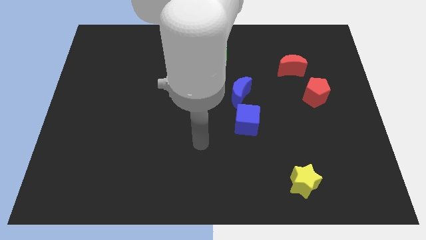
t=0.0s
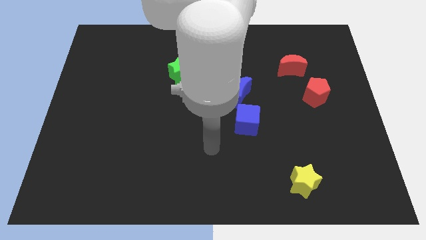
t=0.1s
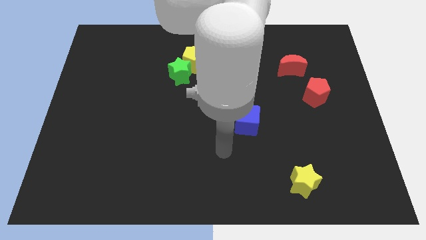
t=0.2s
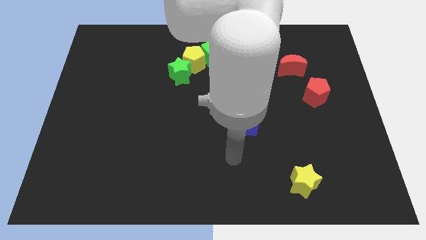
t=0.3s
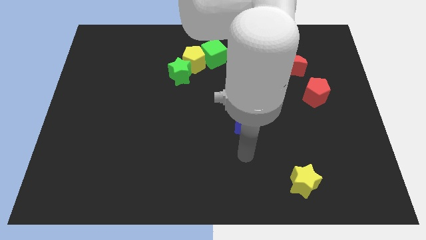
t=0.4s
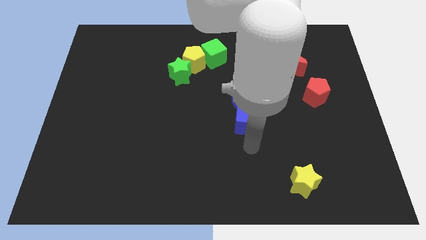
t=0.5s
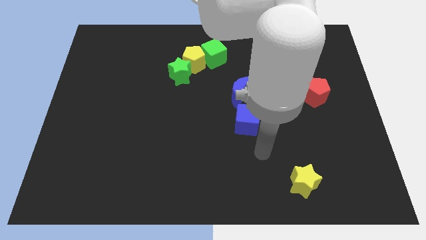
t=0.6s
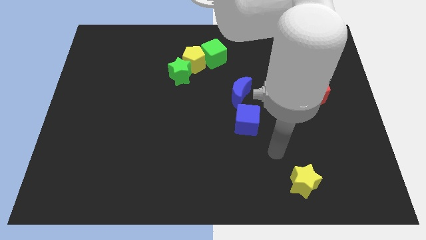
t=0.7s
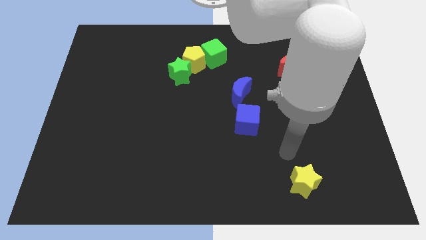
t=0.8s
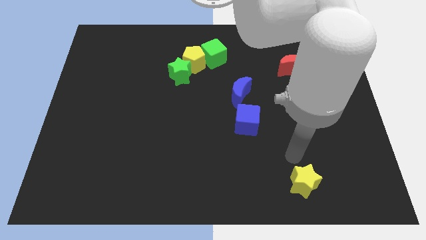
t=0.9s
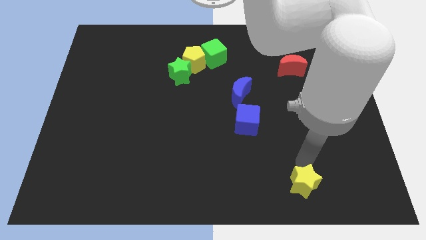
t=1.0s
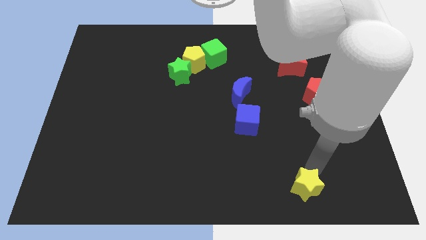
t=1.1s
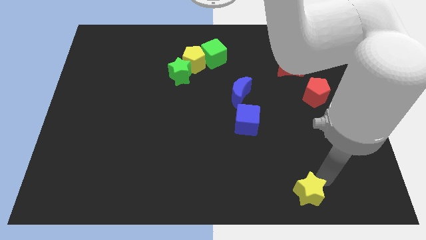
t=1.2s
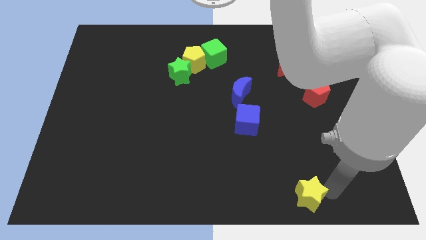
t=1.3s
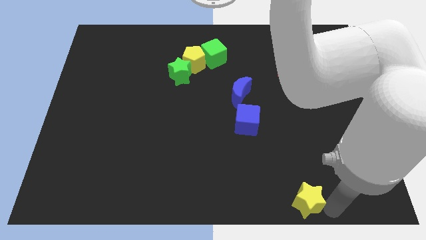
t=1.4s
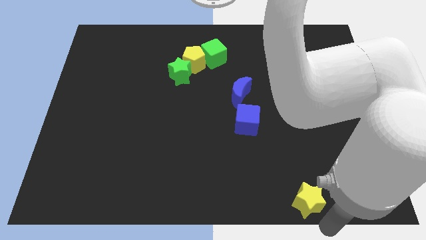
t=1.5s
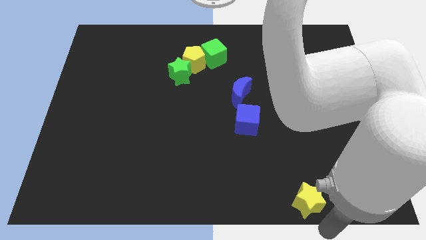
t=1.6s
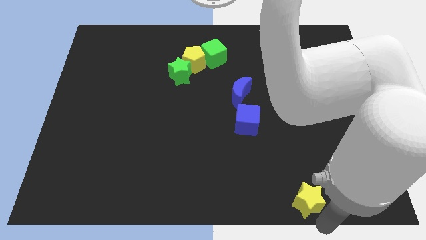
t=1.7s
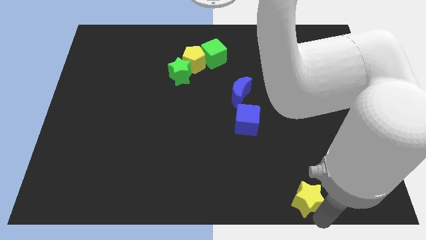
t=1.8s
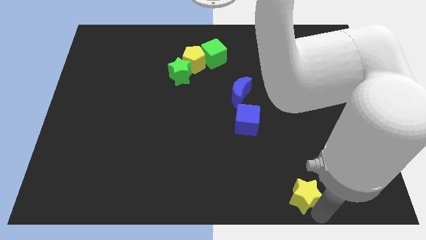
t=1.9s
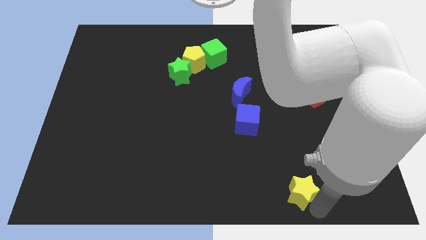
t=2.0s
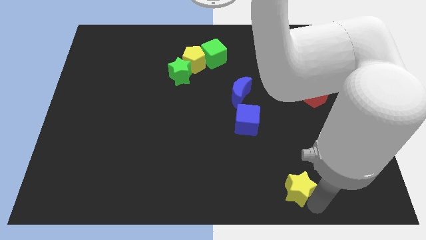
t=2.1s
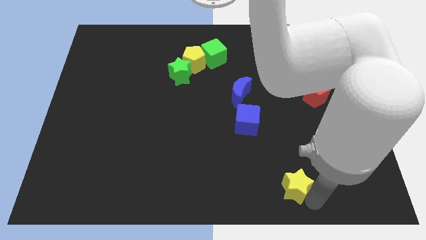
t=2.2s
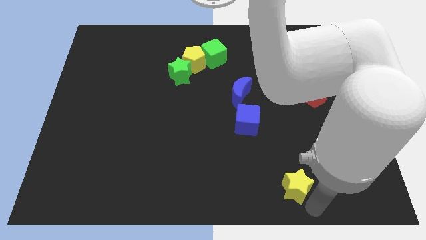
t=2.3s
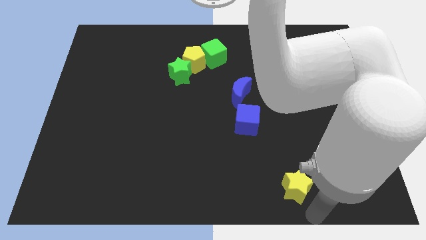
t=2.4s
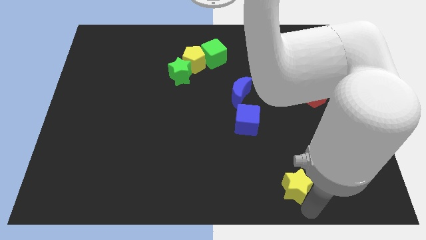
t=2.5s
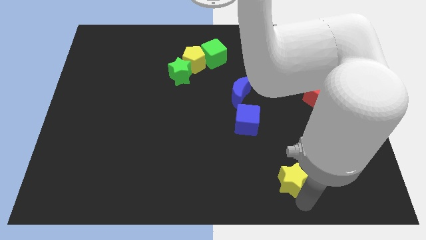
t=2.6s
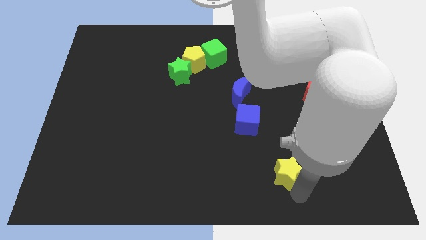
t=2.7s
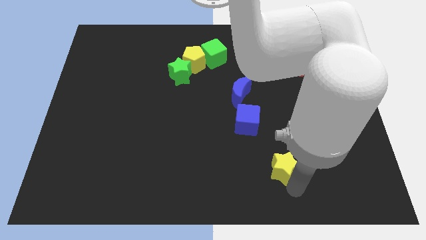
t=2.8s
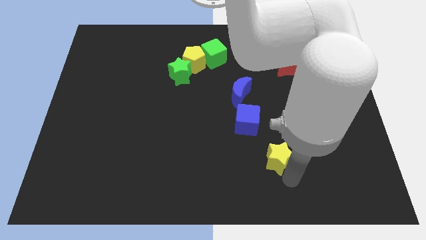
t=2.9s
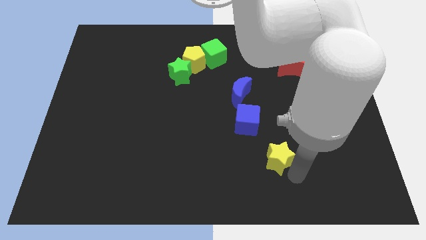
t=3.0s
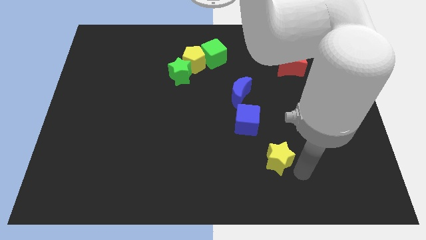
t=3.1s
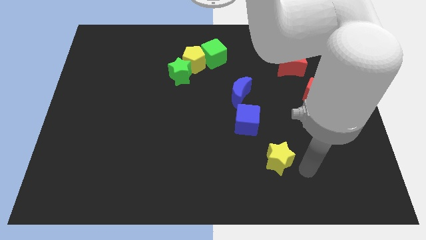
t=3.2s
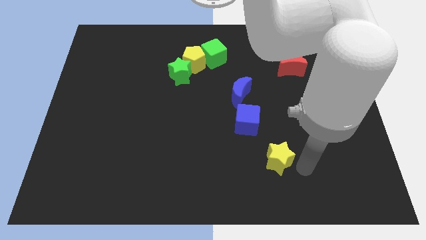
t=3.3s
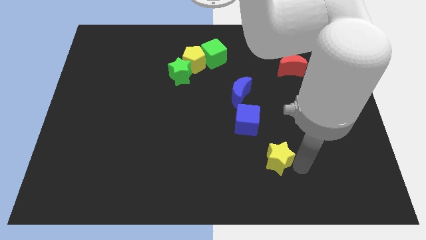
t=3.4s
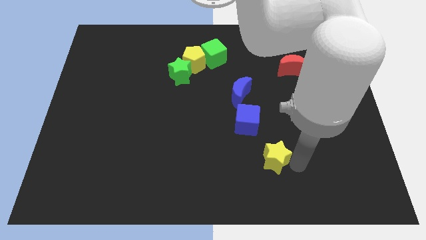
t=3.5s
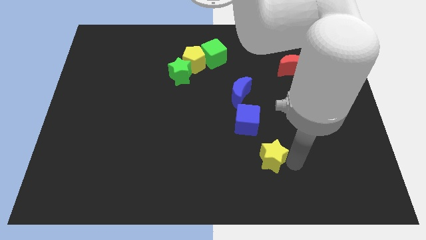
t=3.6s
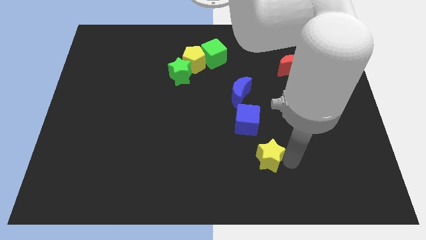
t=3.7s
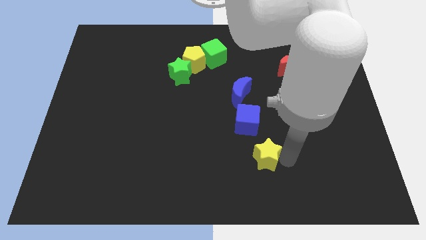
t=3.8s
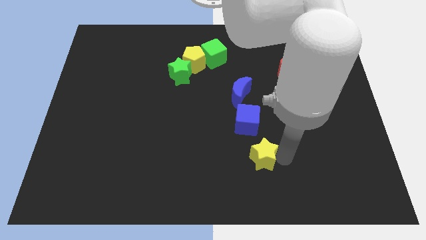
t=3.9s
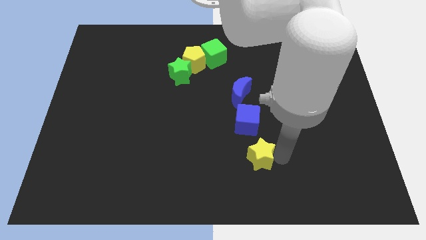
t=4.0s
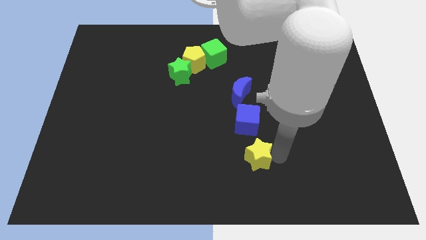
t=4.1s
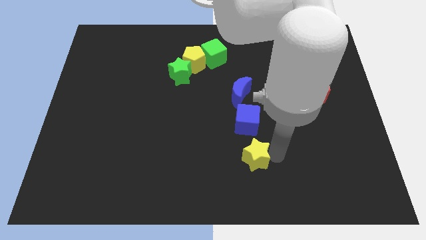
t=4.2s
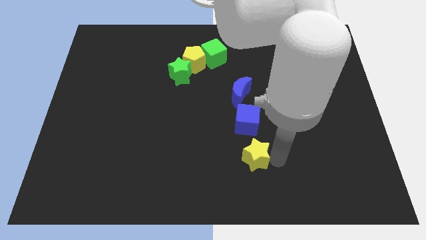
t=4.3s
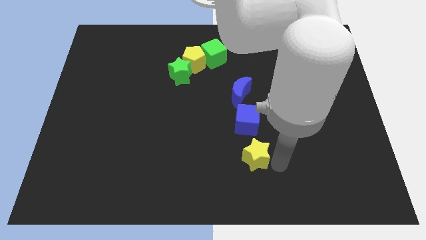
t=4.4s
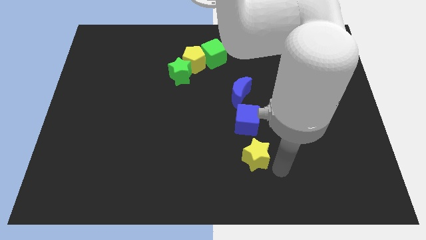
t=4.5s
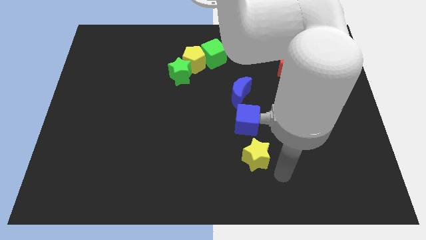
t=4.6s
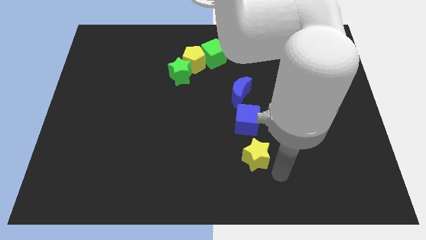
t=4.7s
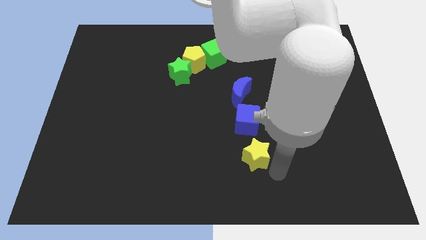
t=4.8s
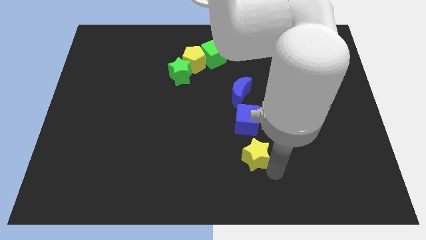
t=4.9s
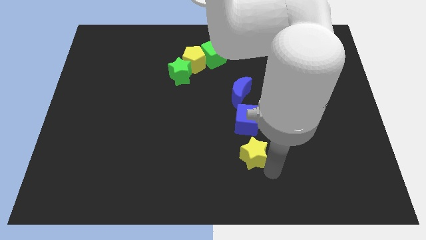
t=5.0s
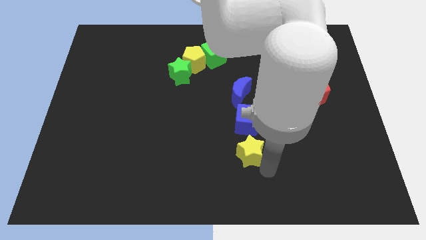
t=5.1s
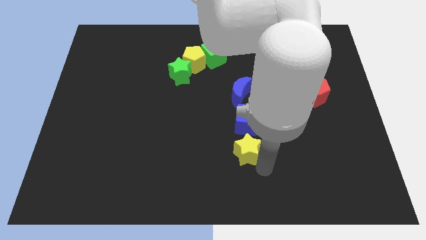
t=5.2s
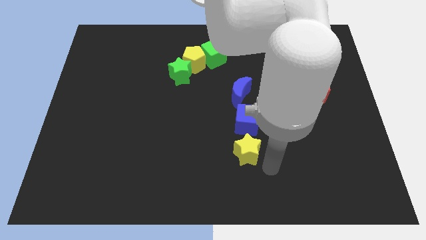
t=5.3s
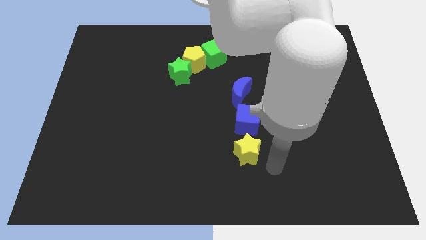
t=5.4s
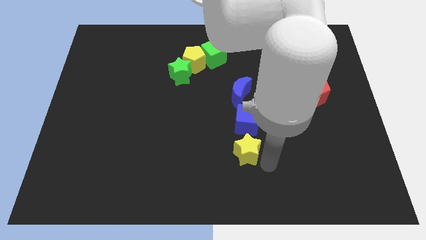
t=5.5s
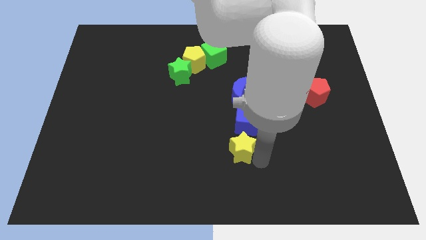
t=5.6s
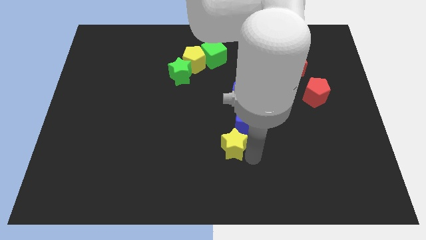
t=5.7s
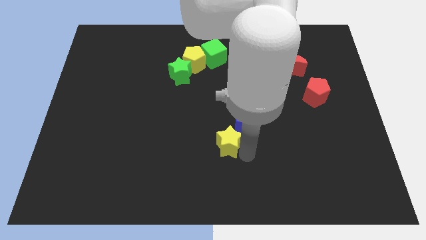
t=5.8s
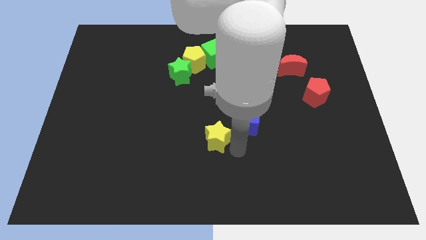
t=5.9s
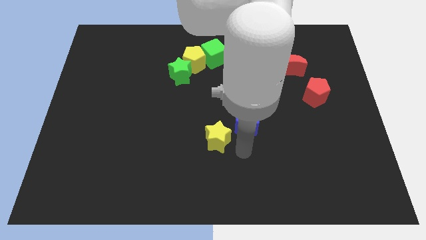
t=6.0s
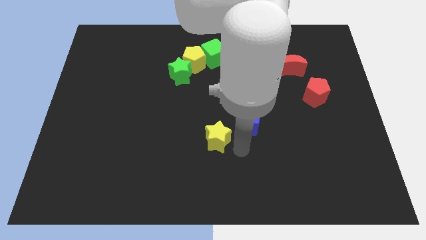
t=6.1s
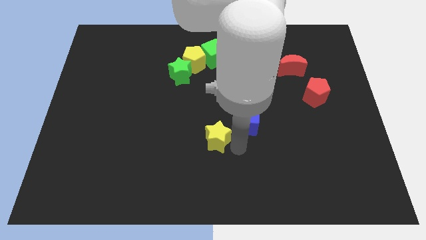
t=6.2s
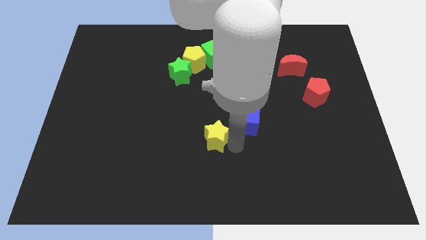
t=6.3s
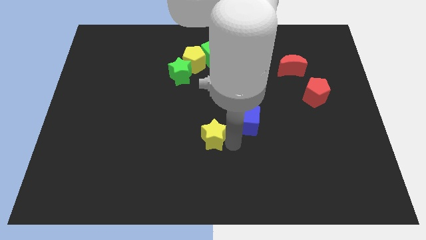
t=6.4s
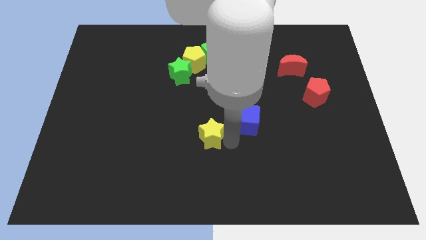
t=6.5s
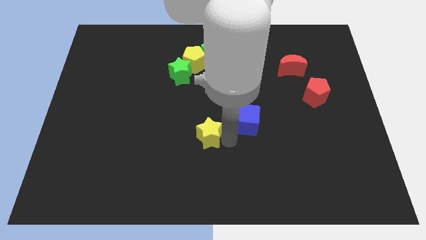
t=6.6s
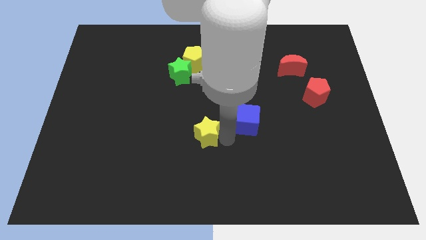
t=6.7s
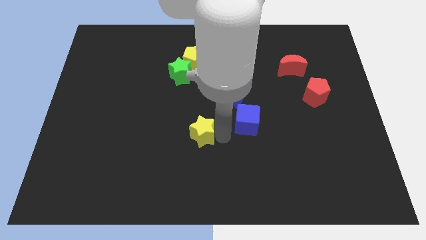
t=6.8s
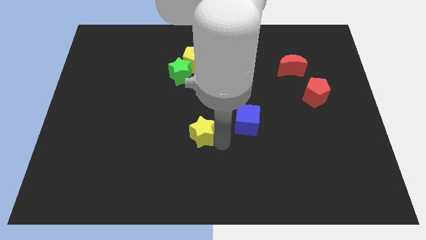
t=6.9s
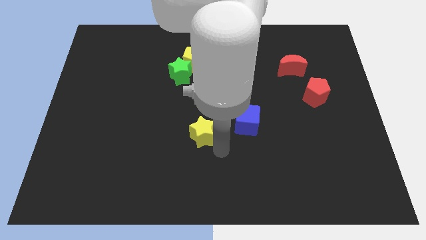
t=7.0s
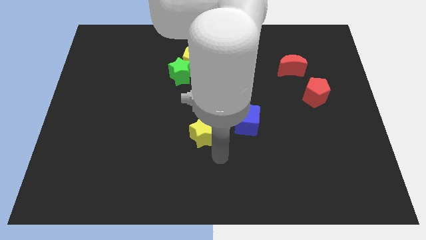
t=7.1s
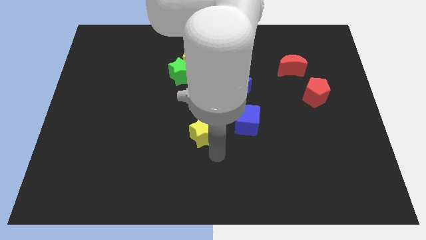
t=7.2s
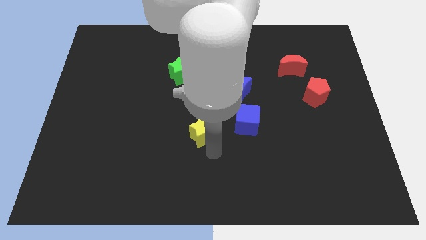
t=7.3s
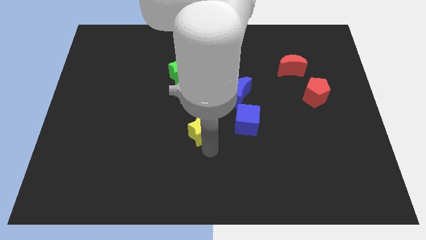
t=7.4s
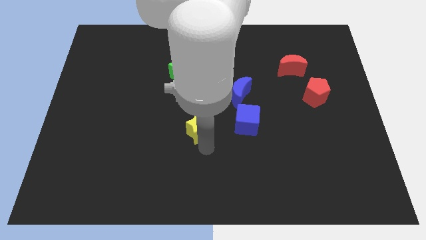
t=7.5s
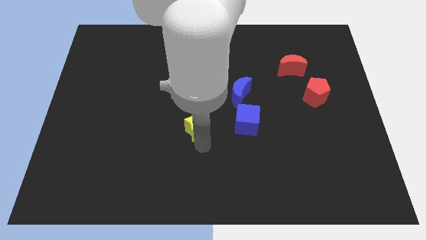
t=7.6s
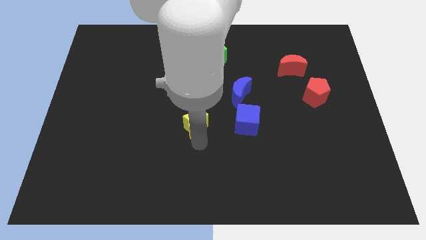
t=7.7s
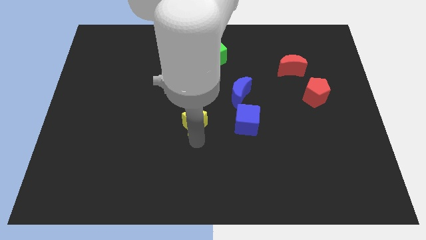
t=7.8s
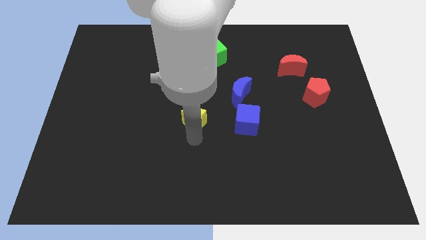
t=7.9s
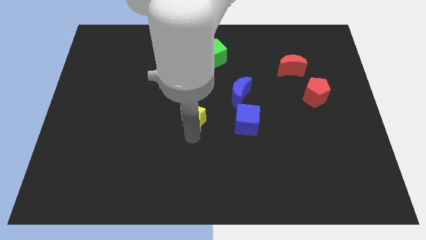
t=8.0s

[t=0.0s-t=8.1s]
put the yellow star below the green star
